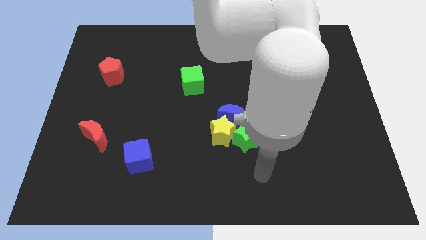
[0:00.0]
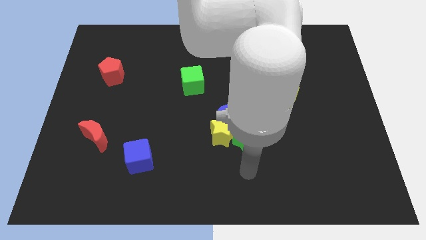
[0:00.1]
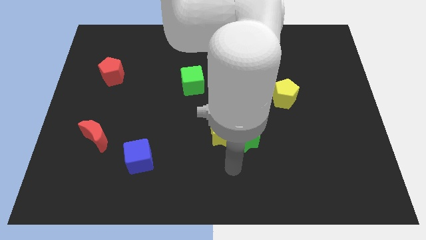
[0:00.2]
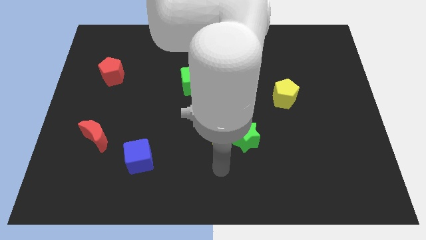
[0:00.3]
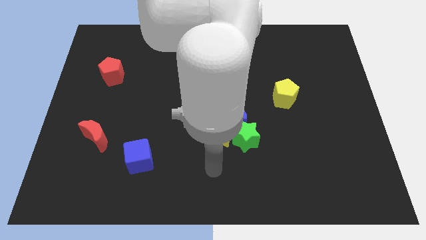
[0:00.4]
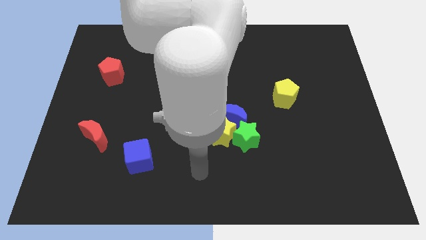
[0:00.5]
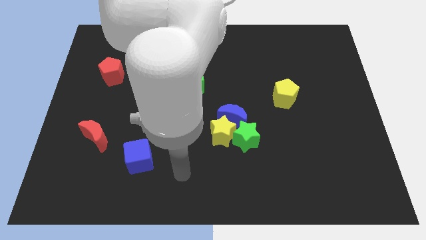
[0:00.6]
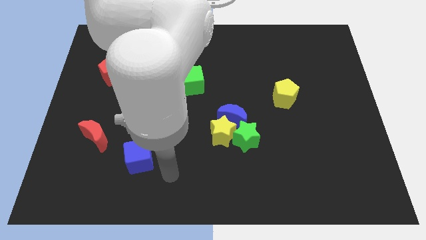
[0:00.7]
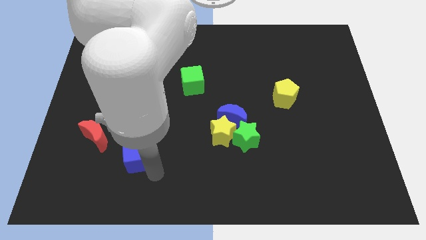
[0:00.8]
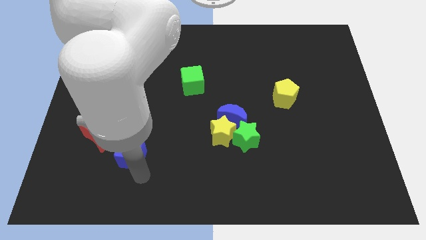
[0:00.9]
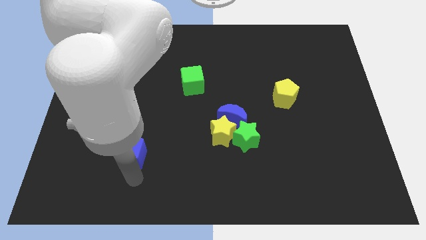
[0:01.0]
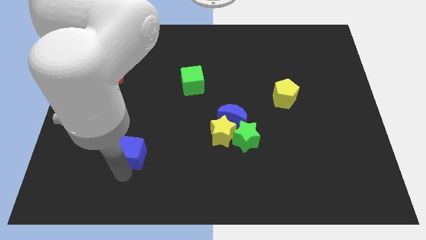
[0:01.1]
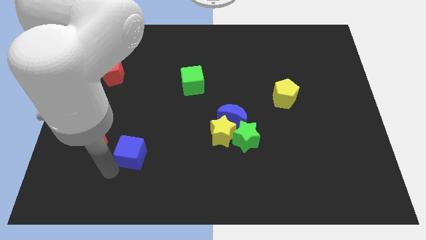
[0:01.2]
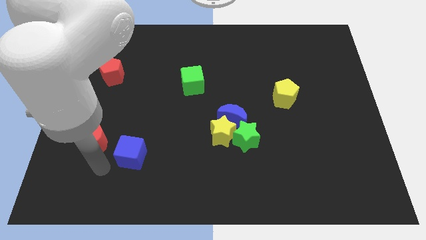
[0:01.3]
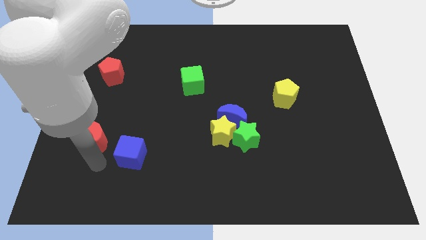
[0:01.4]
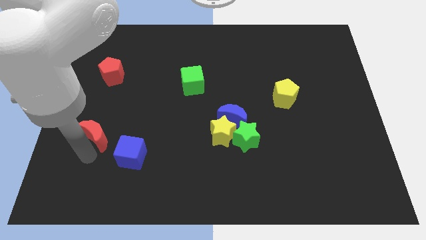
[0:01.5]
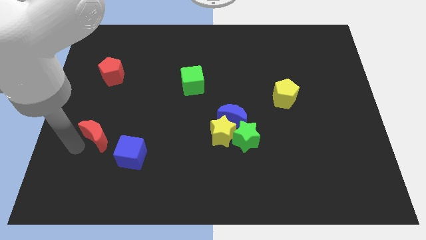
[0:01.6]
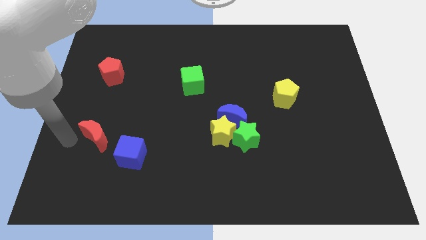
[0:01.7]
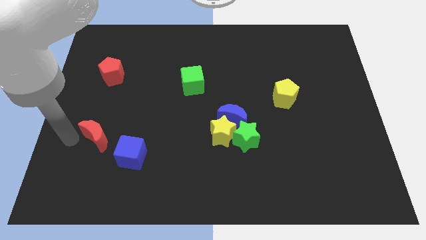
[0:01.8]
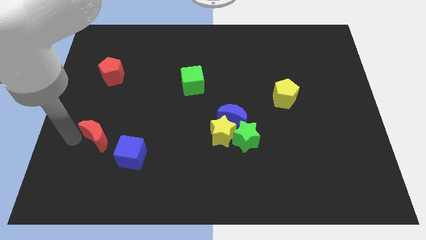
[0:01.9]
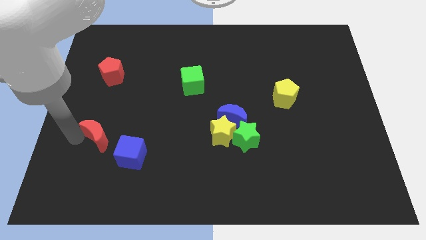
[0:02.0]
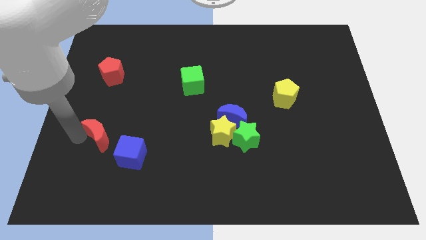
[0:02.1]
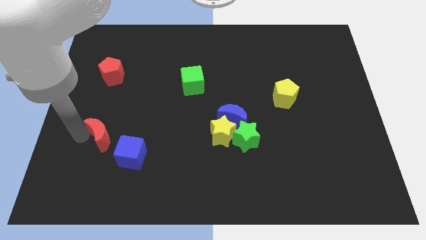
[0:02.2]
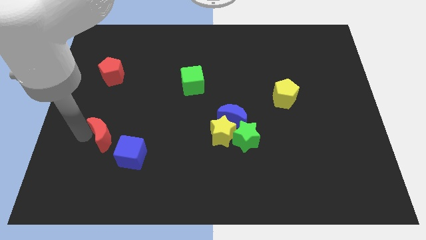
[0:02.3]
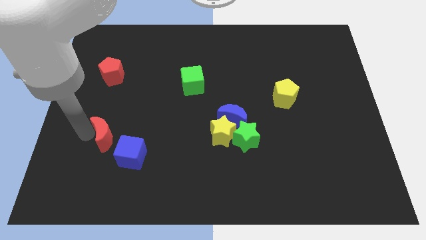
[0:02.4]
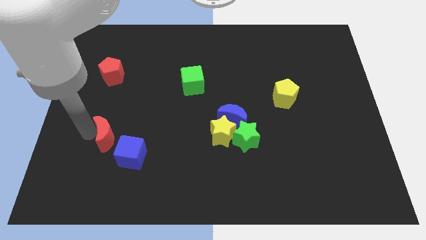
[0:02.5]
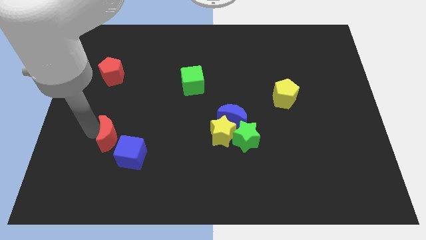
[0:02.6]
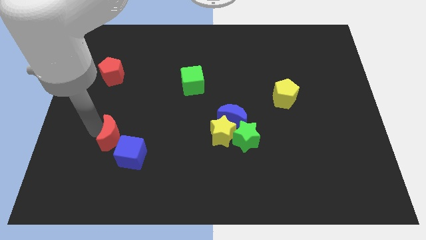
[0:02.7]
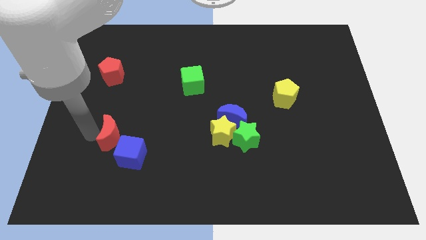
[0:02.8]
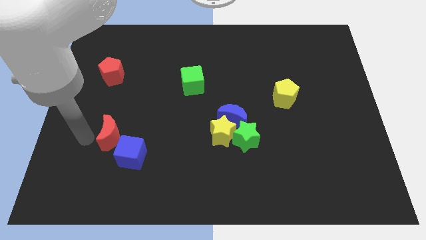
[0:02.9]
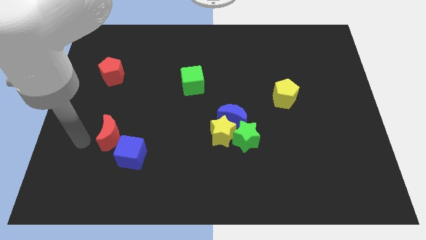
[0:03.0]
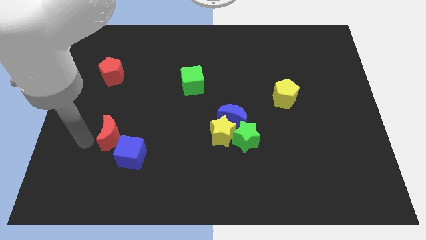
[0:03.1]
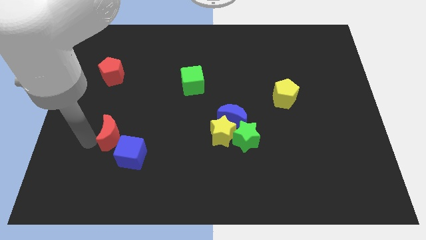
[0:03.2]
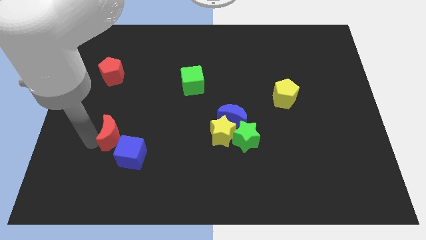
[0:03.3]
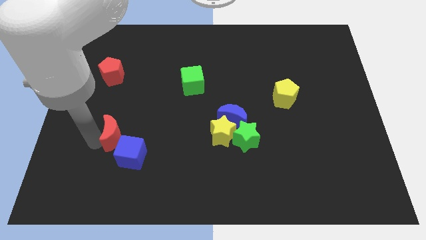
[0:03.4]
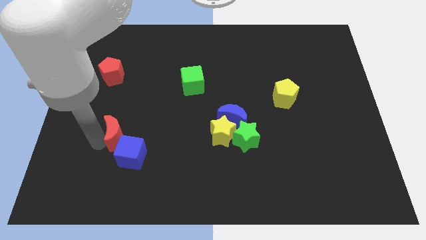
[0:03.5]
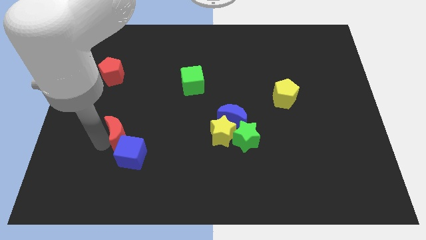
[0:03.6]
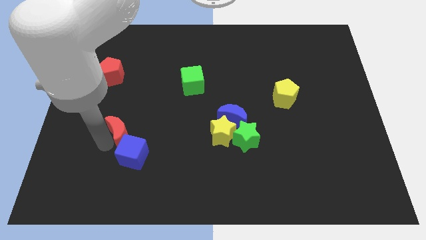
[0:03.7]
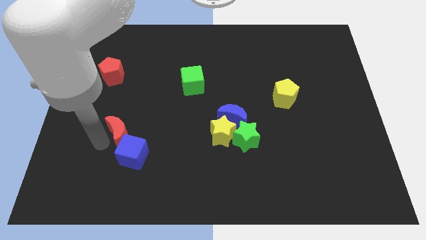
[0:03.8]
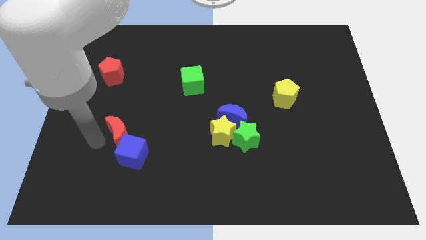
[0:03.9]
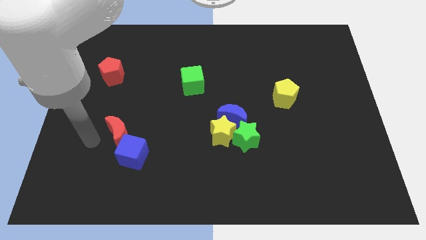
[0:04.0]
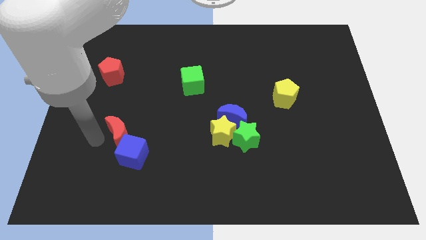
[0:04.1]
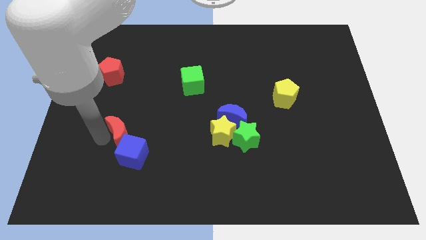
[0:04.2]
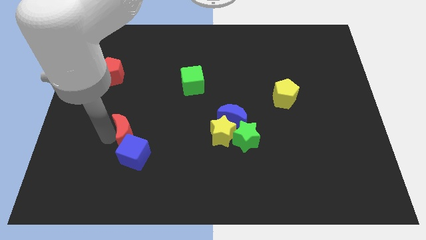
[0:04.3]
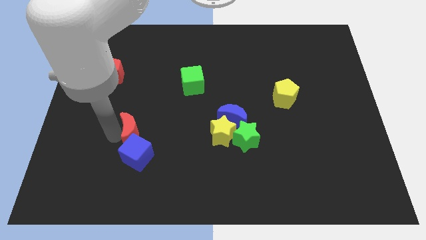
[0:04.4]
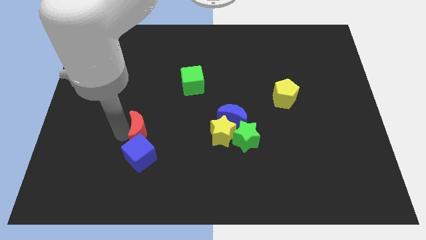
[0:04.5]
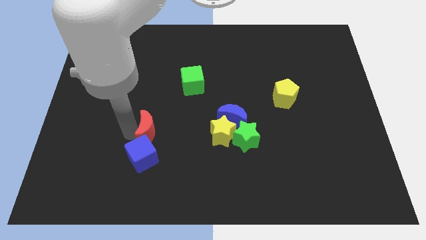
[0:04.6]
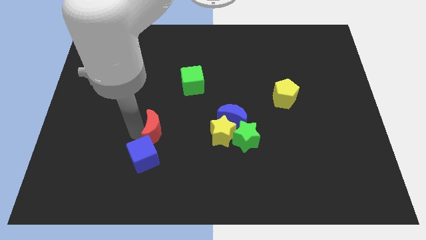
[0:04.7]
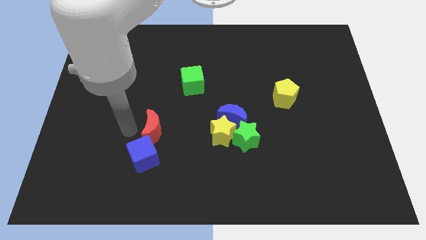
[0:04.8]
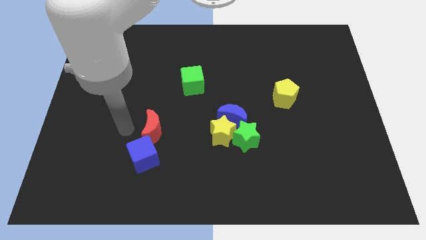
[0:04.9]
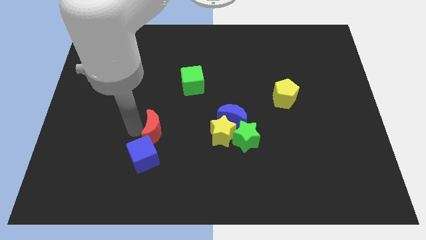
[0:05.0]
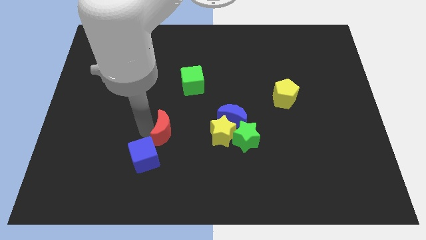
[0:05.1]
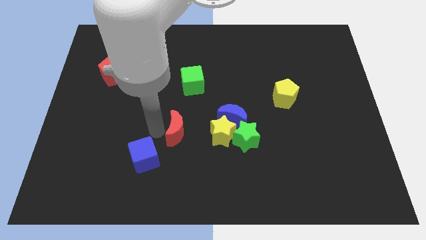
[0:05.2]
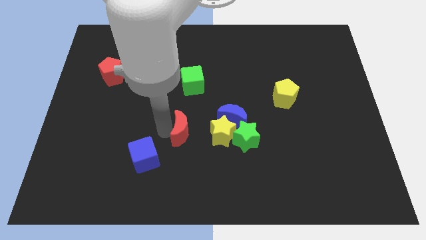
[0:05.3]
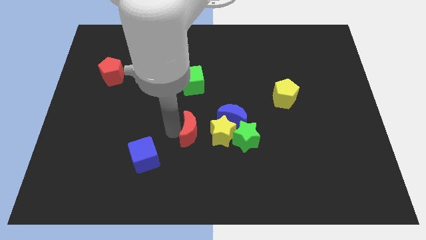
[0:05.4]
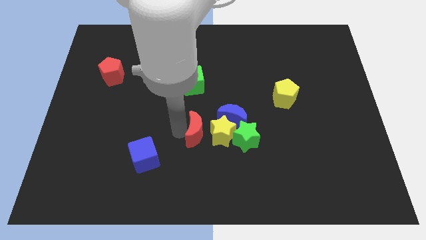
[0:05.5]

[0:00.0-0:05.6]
put the red moon to the yellow star

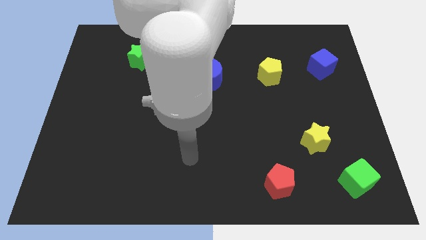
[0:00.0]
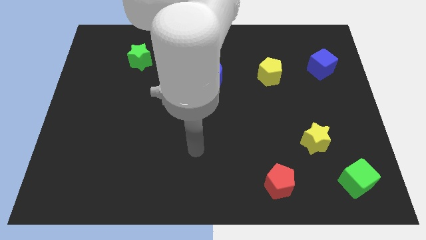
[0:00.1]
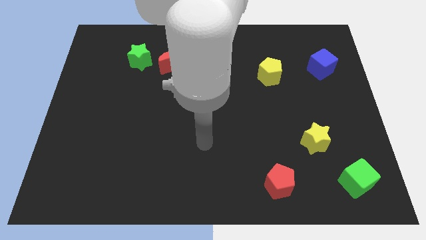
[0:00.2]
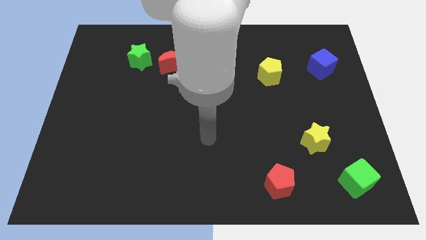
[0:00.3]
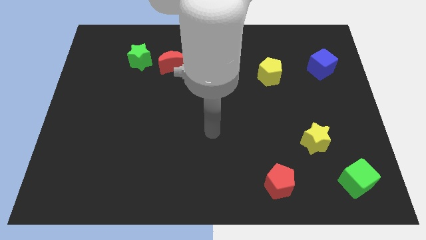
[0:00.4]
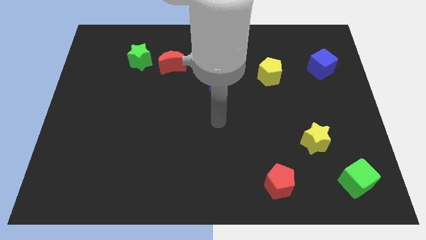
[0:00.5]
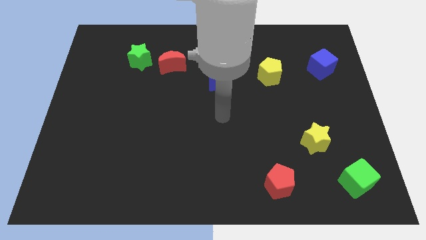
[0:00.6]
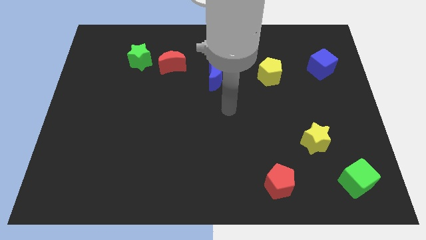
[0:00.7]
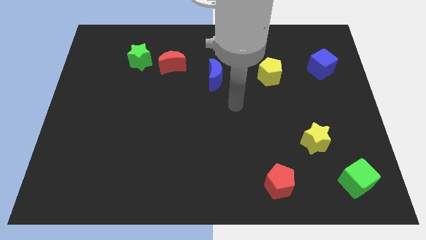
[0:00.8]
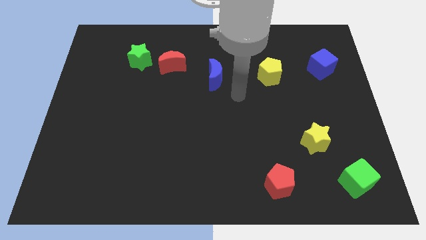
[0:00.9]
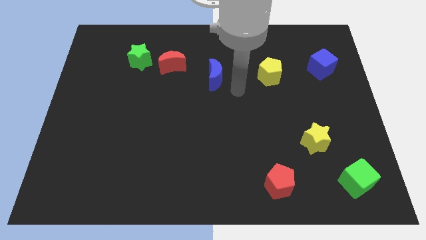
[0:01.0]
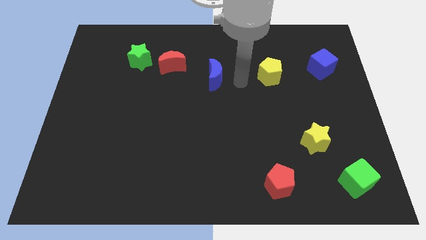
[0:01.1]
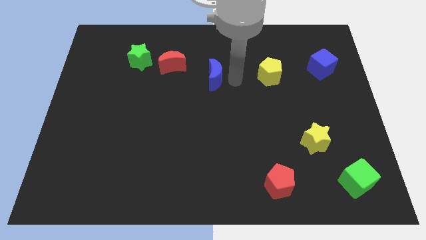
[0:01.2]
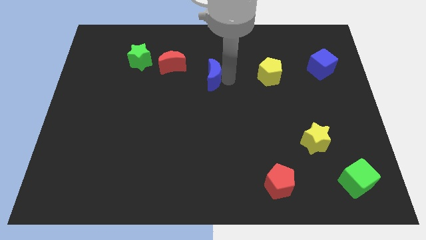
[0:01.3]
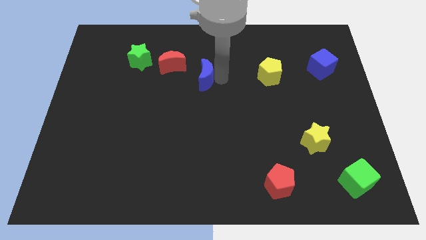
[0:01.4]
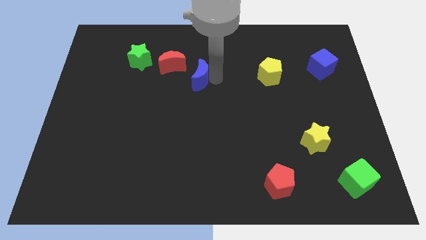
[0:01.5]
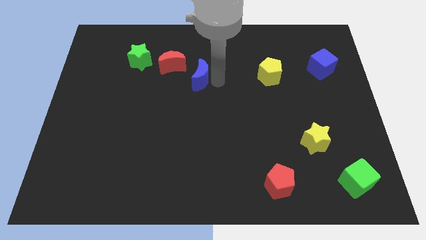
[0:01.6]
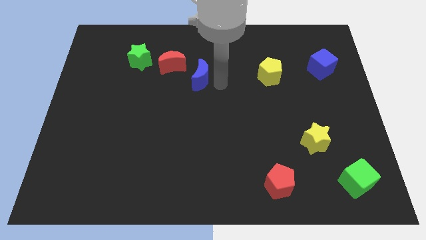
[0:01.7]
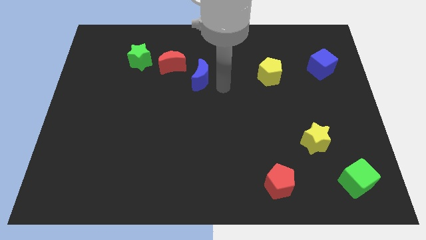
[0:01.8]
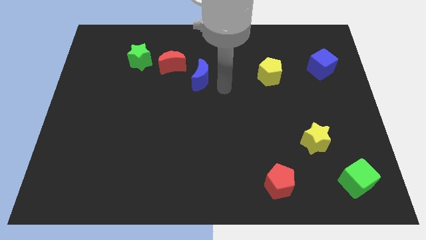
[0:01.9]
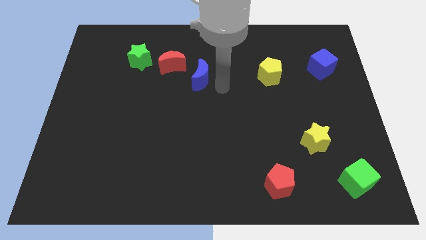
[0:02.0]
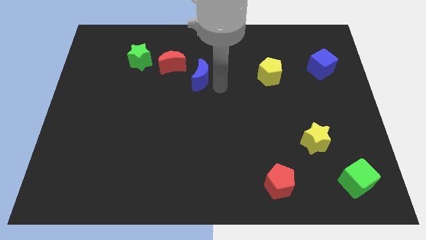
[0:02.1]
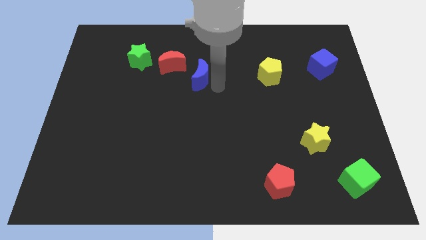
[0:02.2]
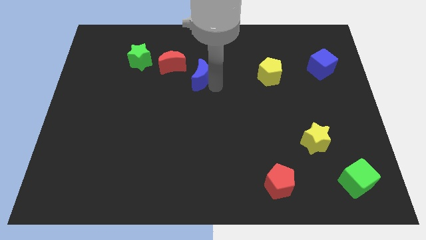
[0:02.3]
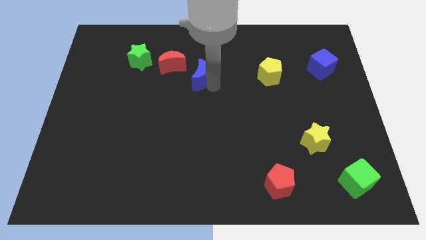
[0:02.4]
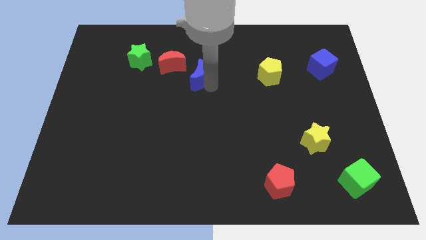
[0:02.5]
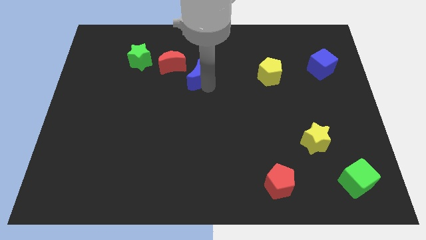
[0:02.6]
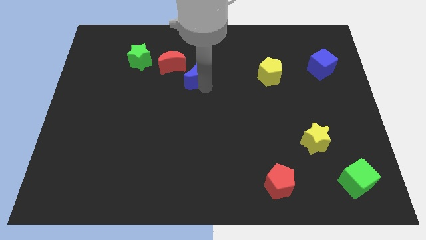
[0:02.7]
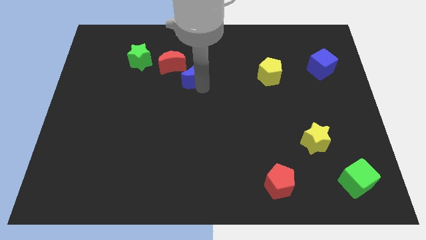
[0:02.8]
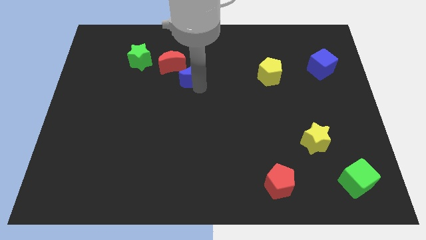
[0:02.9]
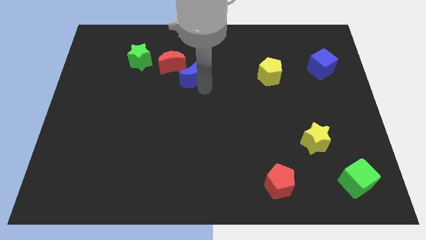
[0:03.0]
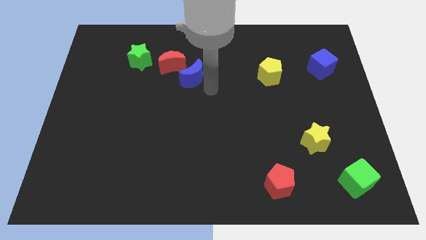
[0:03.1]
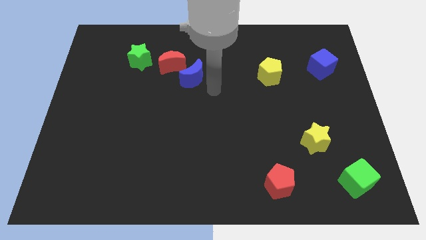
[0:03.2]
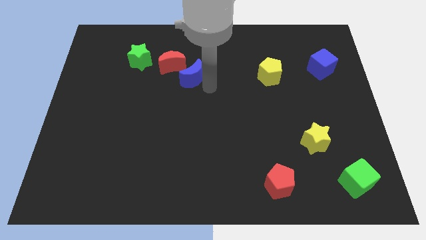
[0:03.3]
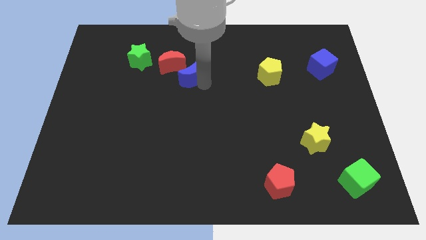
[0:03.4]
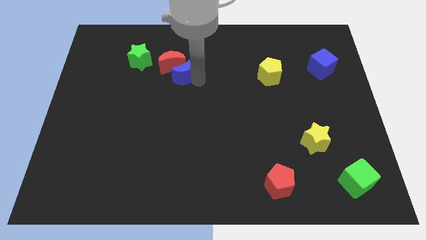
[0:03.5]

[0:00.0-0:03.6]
move the blue moon close to the red moon
